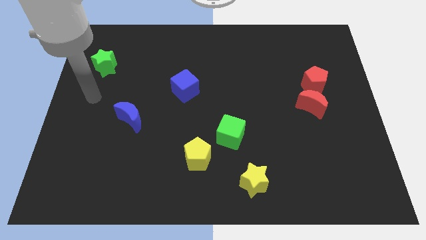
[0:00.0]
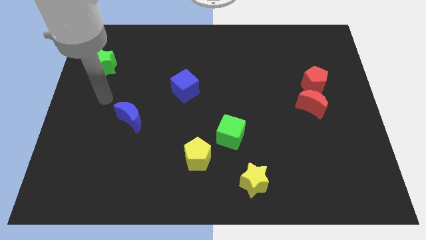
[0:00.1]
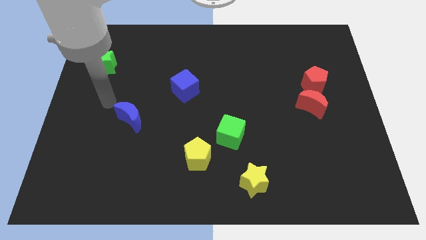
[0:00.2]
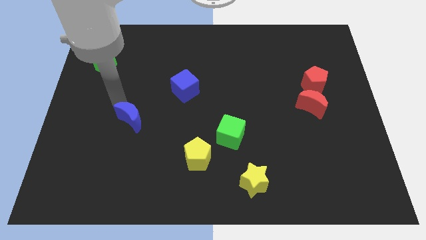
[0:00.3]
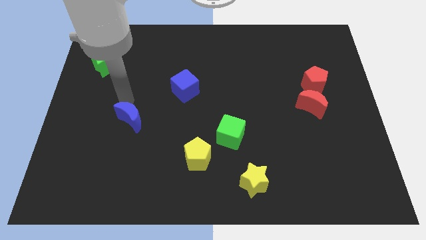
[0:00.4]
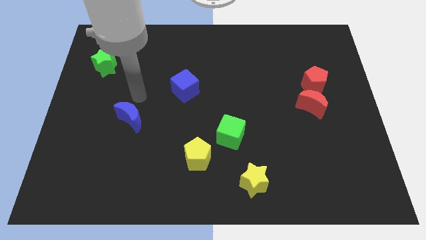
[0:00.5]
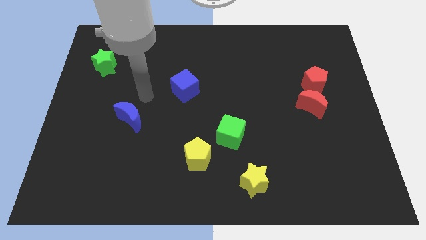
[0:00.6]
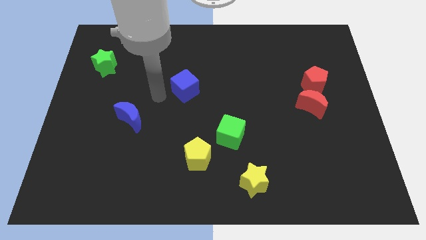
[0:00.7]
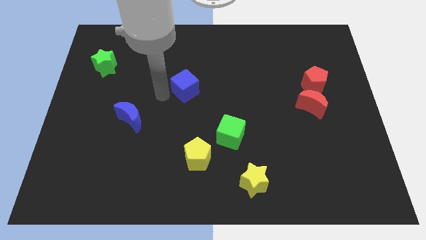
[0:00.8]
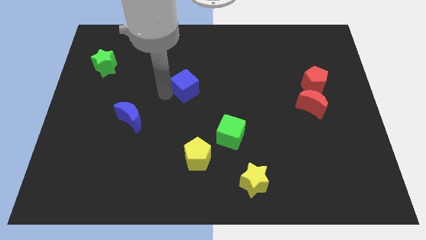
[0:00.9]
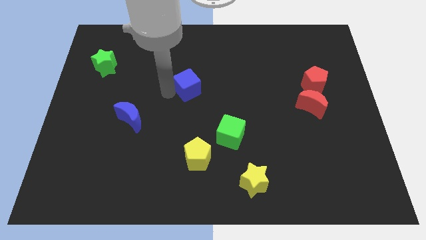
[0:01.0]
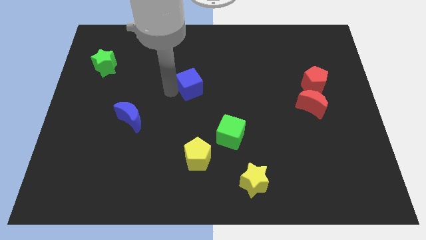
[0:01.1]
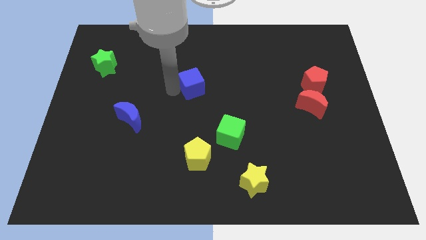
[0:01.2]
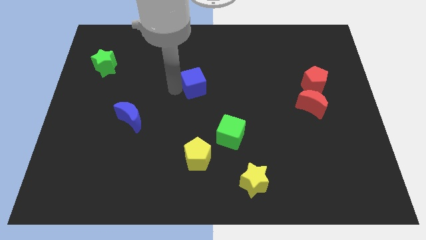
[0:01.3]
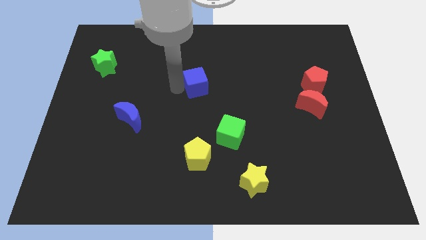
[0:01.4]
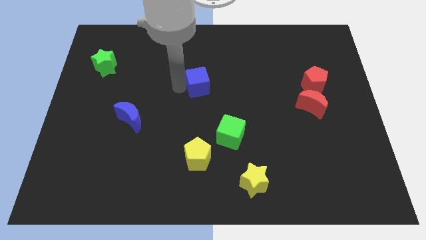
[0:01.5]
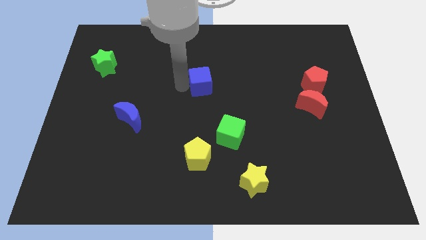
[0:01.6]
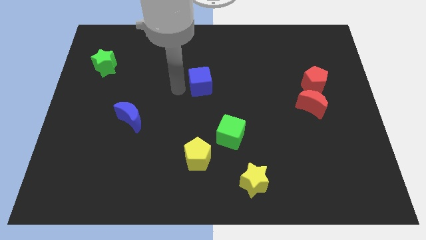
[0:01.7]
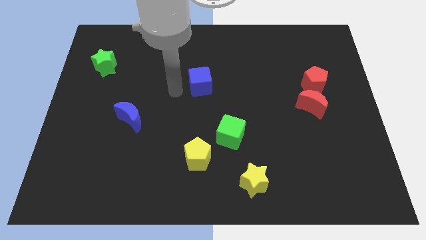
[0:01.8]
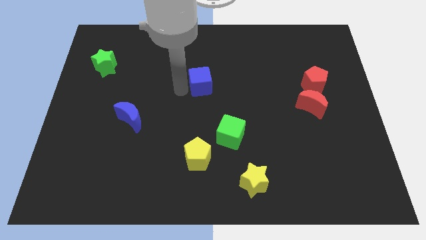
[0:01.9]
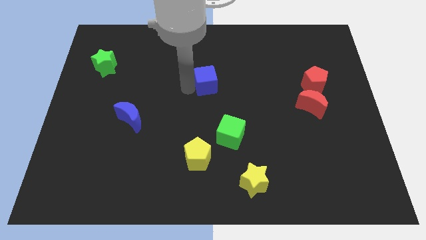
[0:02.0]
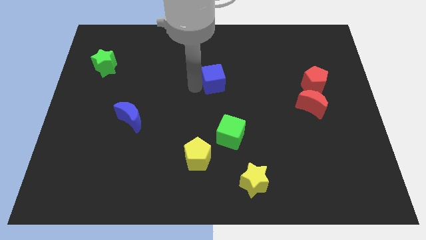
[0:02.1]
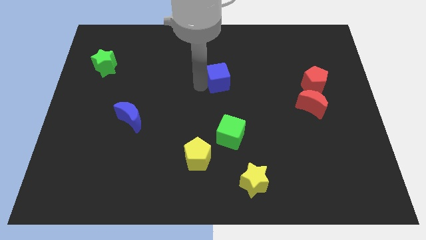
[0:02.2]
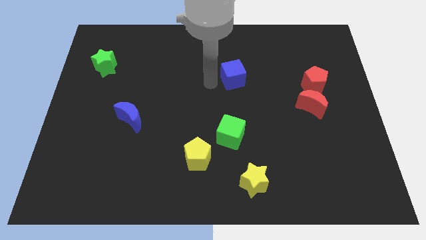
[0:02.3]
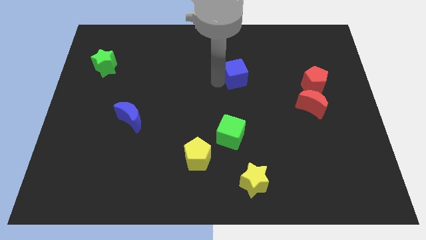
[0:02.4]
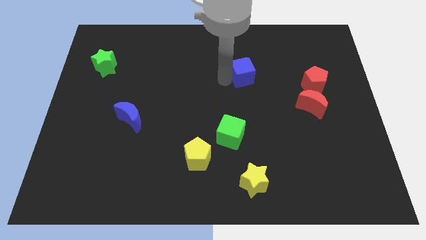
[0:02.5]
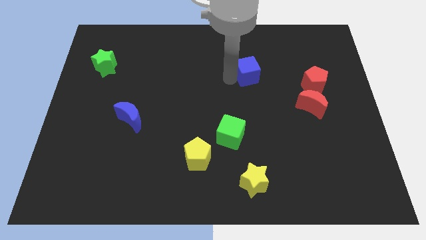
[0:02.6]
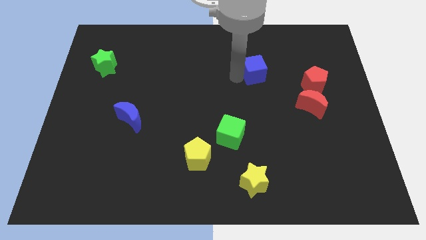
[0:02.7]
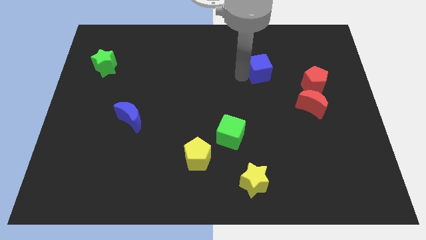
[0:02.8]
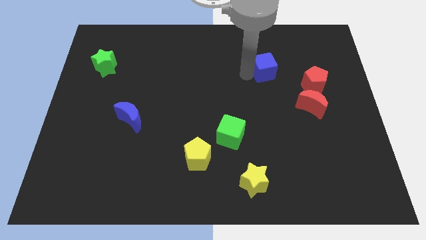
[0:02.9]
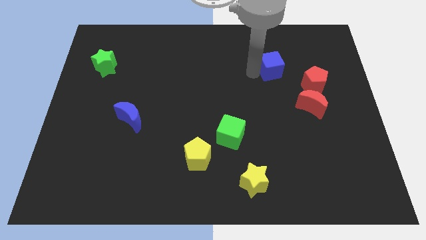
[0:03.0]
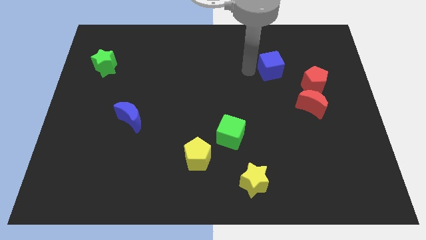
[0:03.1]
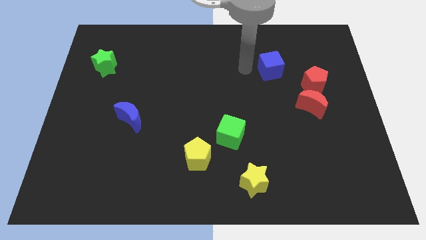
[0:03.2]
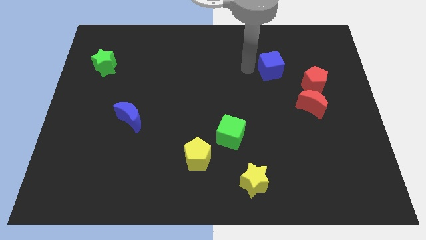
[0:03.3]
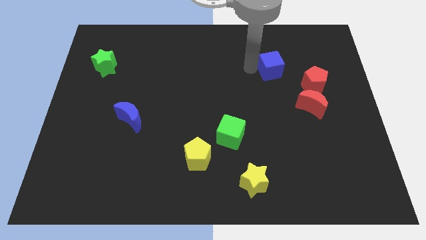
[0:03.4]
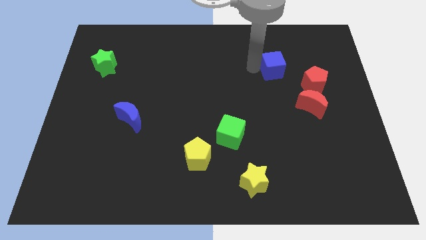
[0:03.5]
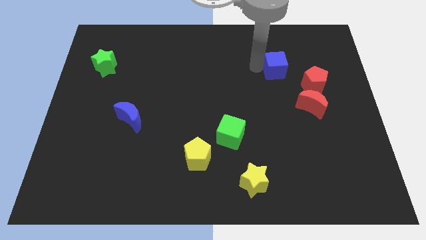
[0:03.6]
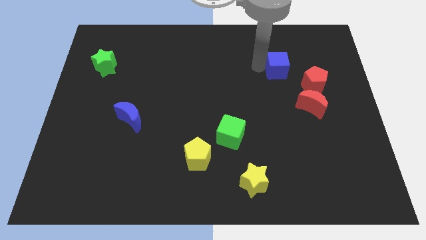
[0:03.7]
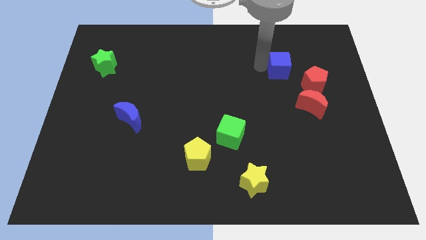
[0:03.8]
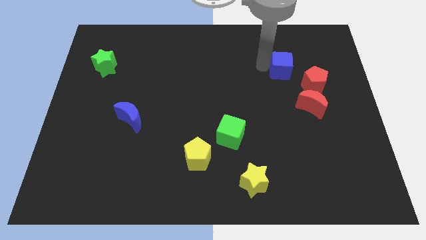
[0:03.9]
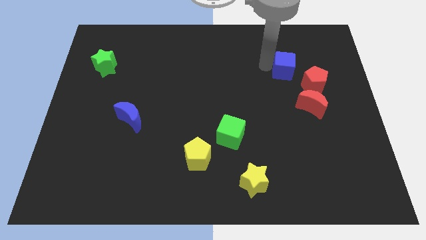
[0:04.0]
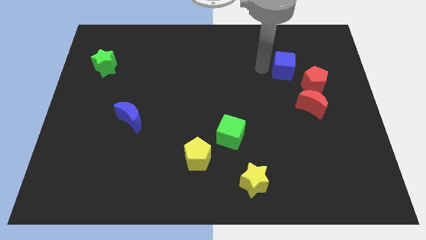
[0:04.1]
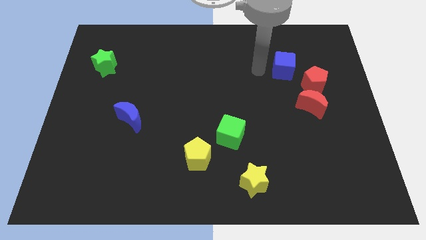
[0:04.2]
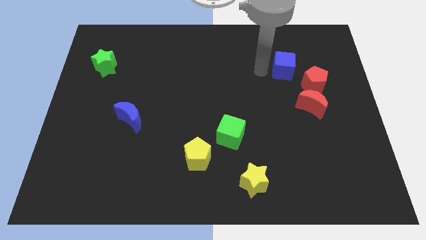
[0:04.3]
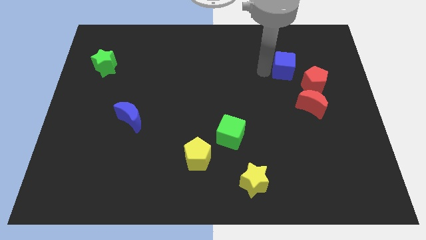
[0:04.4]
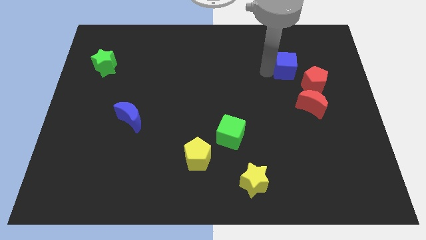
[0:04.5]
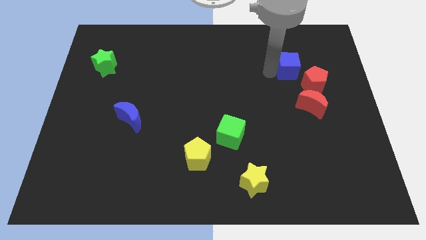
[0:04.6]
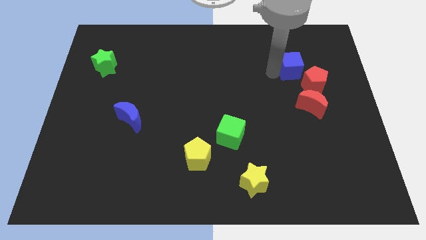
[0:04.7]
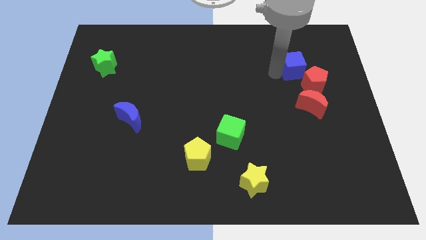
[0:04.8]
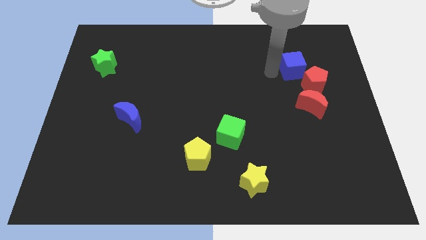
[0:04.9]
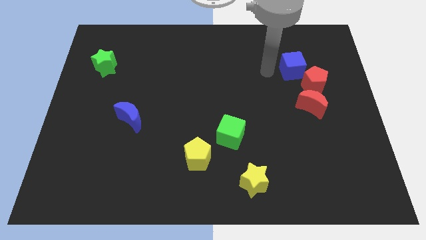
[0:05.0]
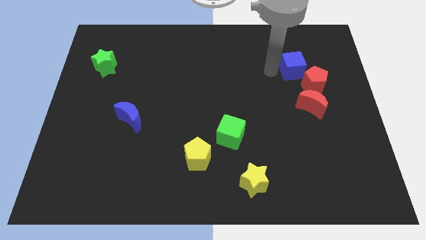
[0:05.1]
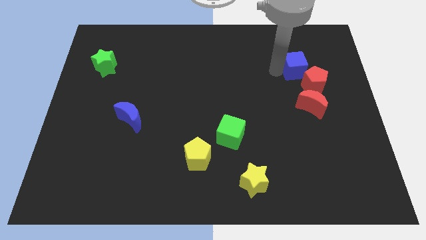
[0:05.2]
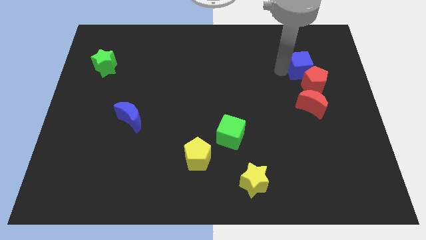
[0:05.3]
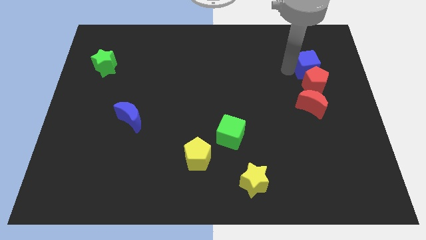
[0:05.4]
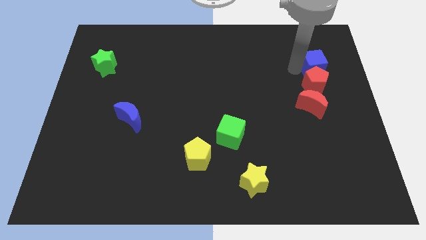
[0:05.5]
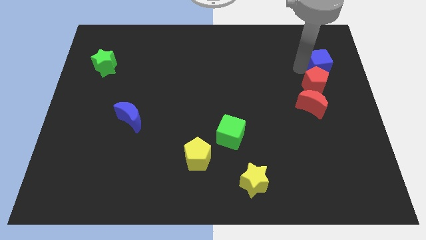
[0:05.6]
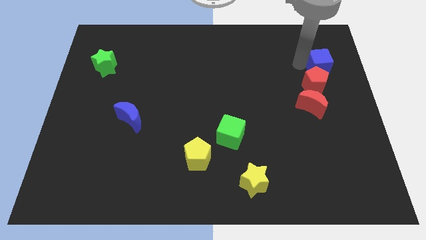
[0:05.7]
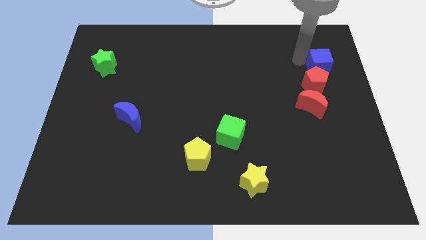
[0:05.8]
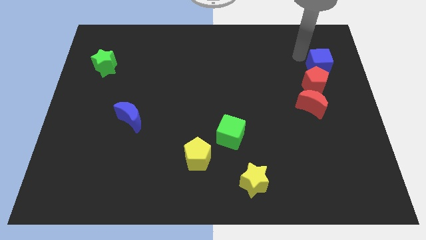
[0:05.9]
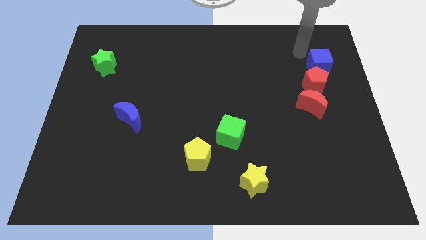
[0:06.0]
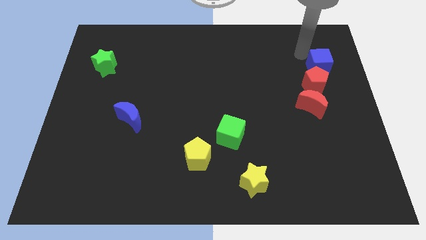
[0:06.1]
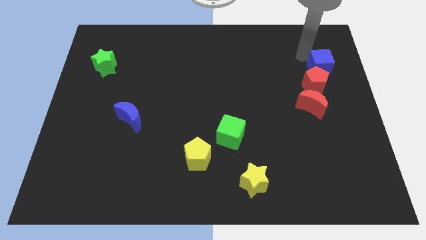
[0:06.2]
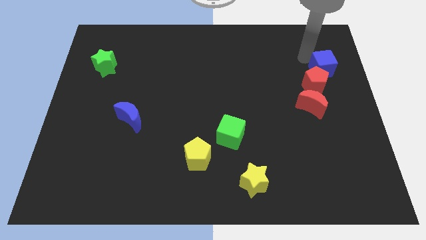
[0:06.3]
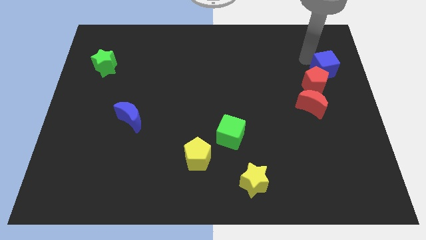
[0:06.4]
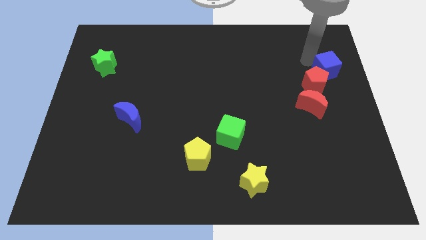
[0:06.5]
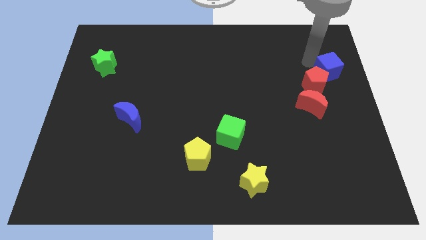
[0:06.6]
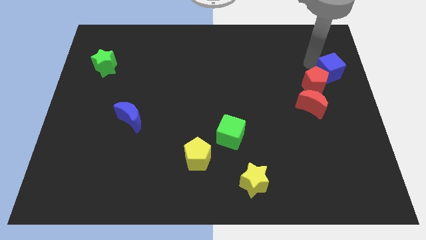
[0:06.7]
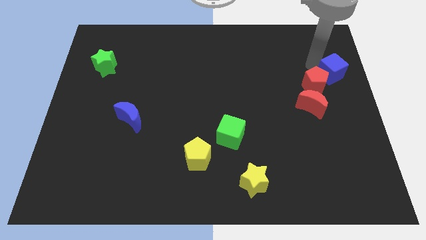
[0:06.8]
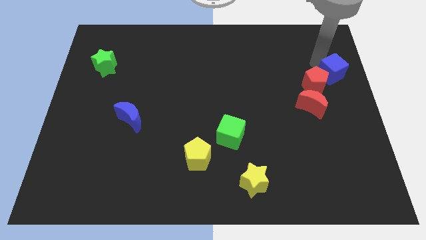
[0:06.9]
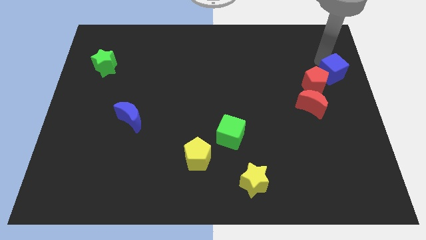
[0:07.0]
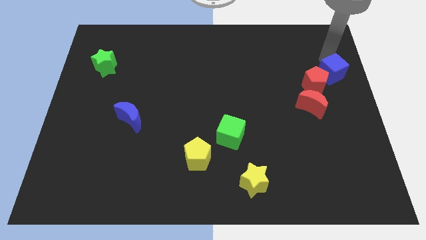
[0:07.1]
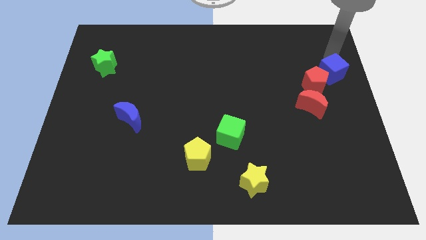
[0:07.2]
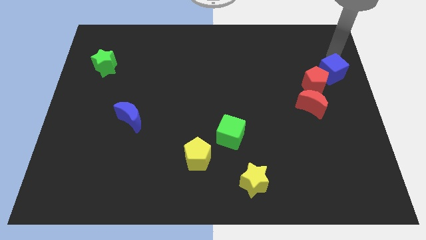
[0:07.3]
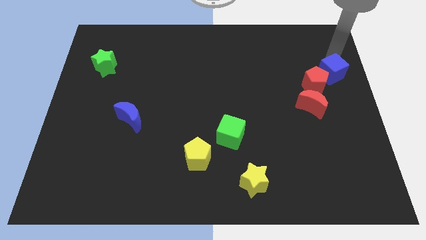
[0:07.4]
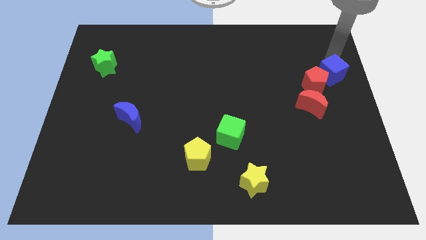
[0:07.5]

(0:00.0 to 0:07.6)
put the blue cube to the top right side of the red moon
